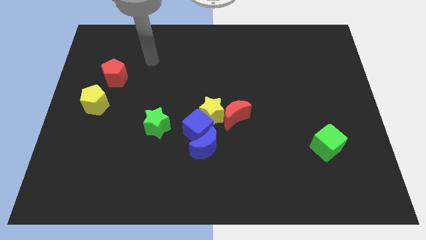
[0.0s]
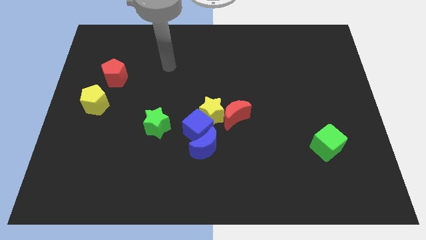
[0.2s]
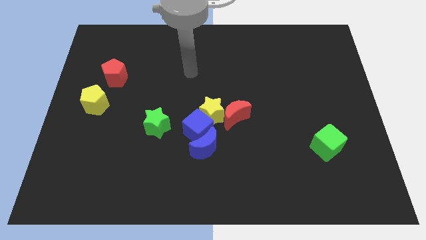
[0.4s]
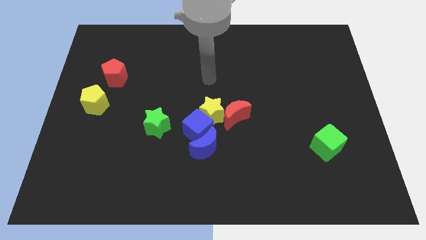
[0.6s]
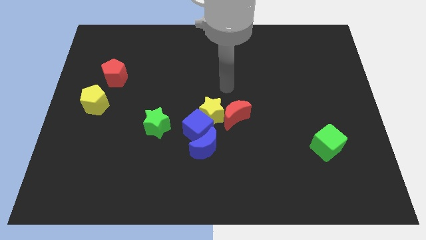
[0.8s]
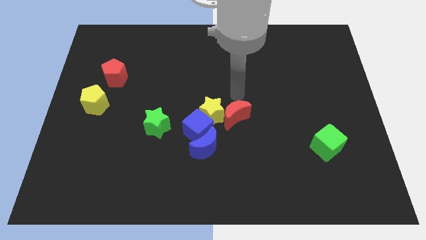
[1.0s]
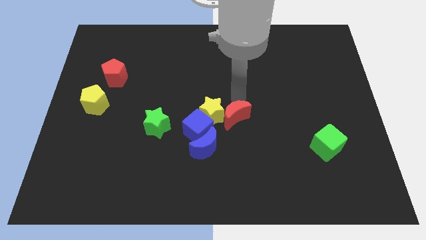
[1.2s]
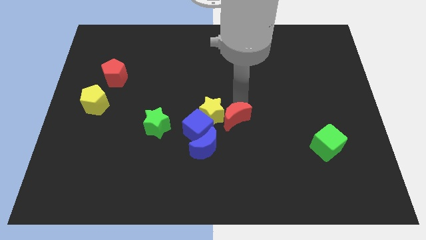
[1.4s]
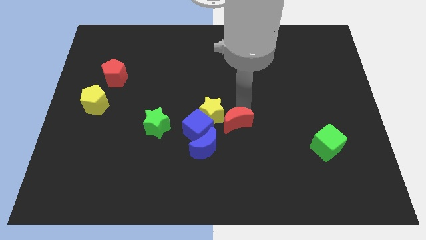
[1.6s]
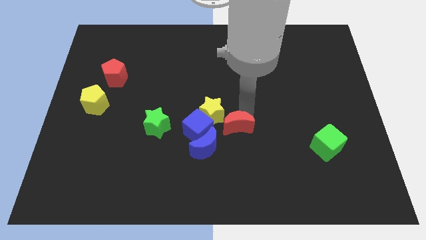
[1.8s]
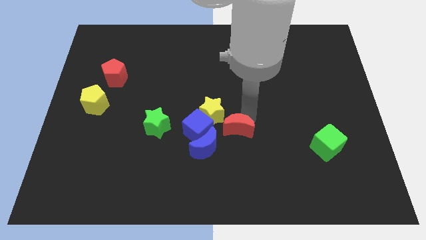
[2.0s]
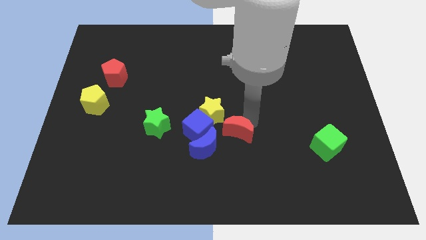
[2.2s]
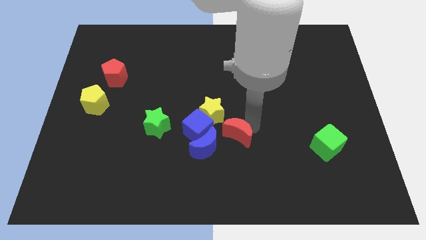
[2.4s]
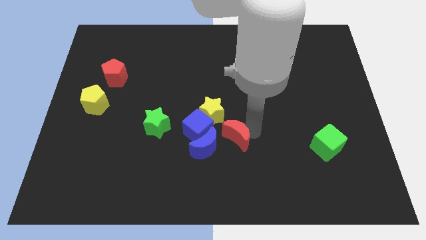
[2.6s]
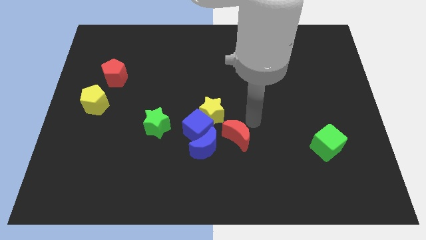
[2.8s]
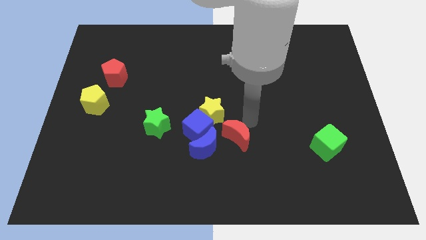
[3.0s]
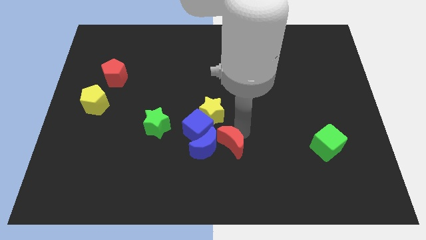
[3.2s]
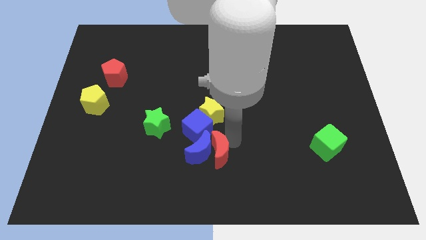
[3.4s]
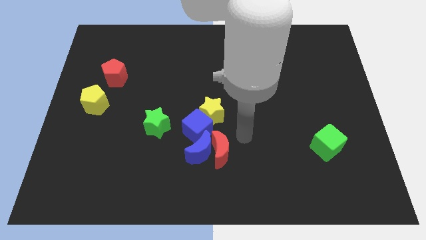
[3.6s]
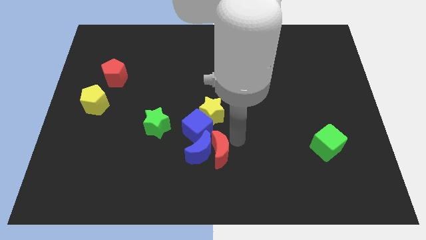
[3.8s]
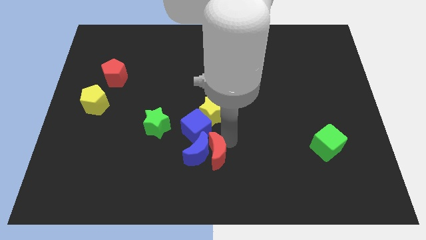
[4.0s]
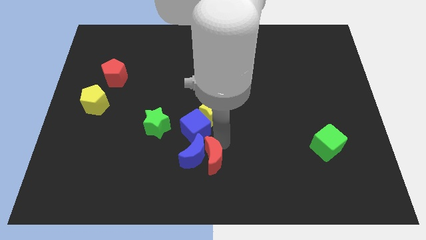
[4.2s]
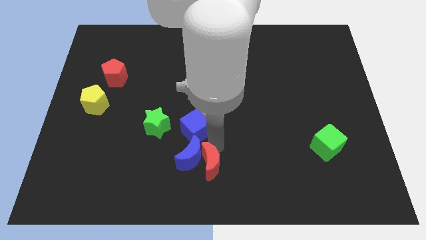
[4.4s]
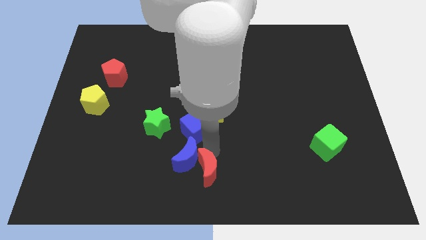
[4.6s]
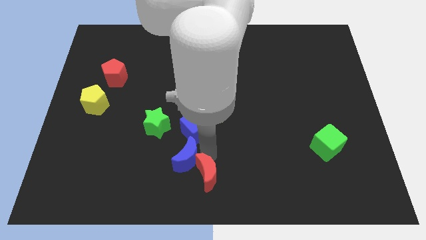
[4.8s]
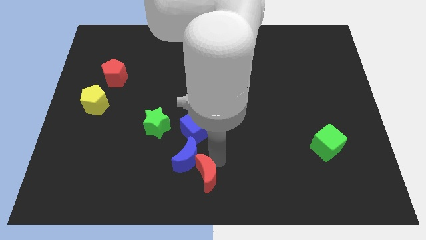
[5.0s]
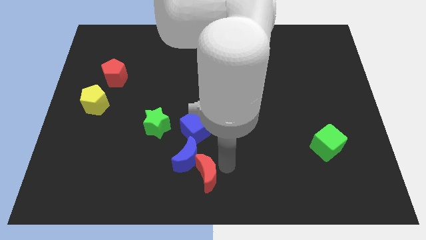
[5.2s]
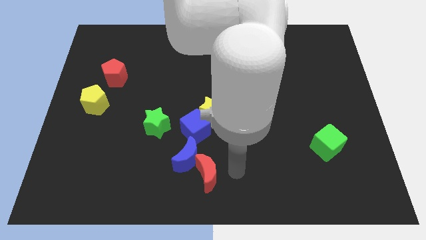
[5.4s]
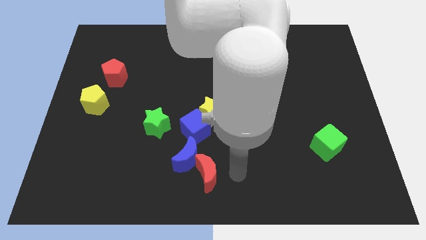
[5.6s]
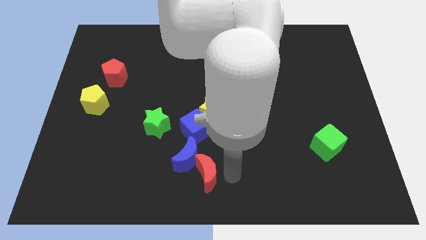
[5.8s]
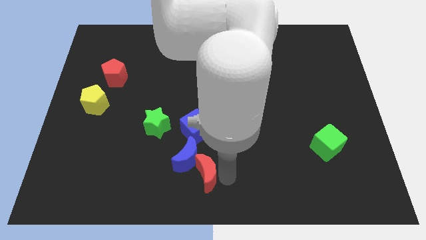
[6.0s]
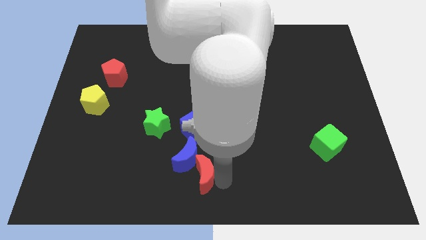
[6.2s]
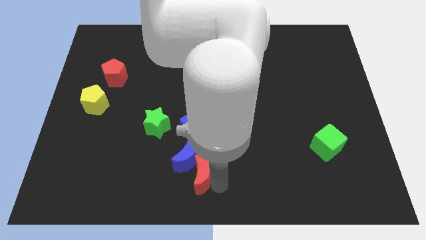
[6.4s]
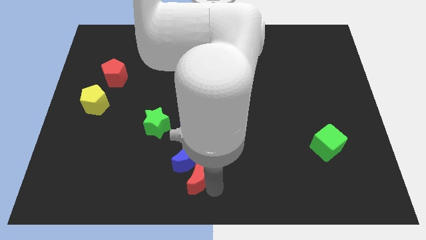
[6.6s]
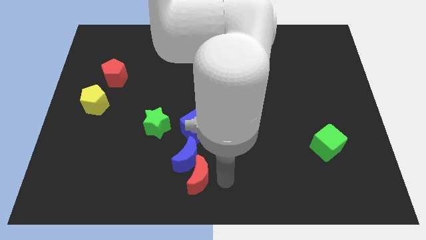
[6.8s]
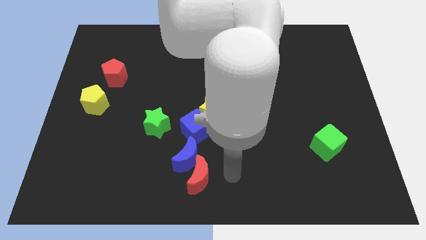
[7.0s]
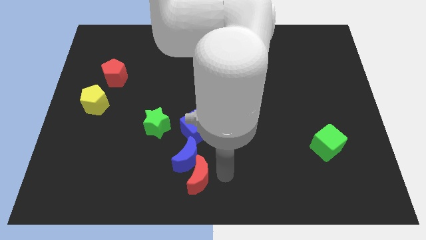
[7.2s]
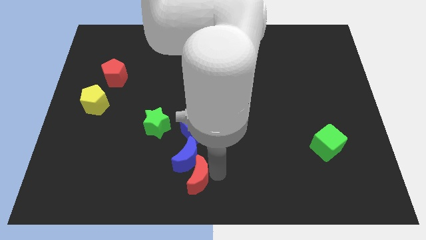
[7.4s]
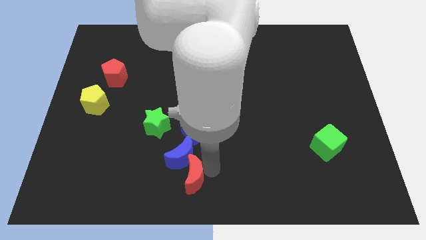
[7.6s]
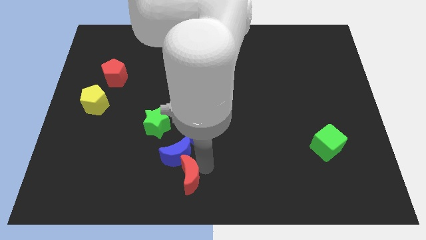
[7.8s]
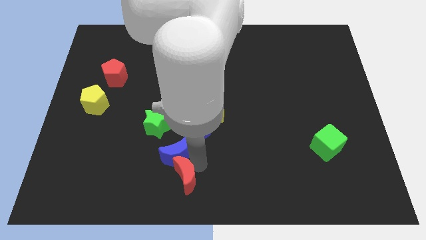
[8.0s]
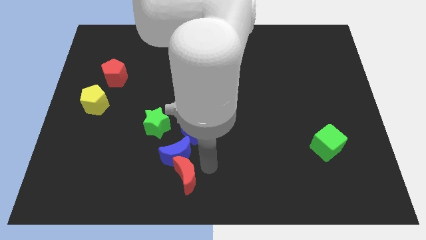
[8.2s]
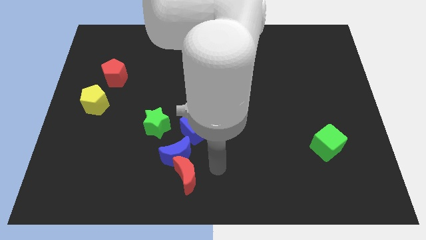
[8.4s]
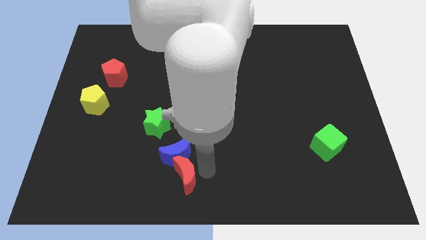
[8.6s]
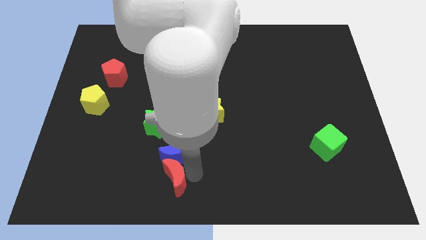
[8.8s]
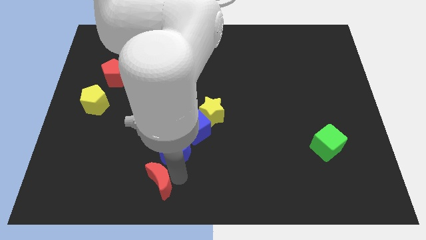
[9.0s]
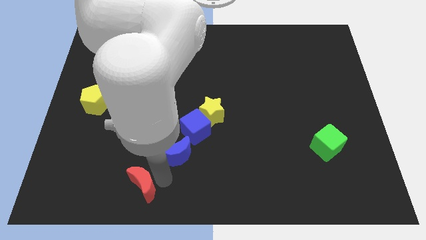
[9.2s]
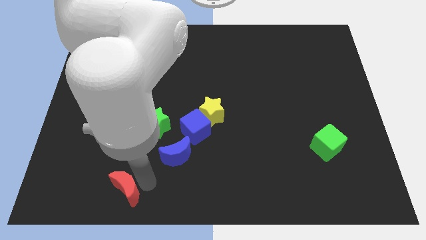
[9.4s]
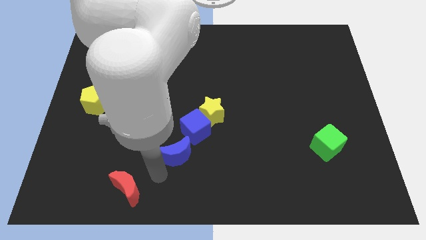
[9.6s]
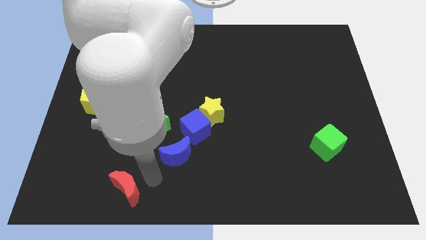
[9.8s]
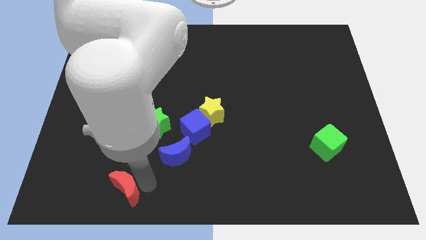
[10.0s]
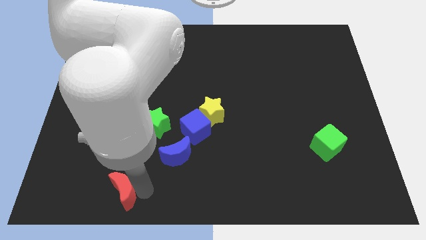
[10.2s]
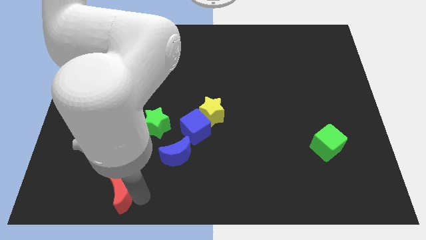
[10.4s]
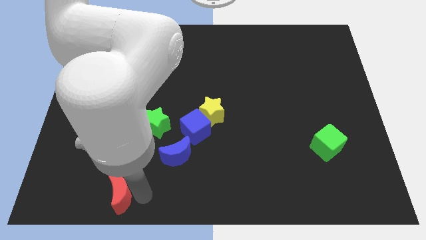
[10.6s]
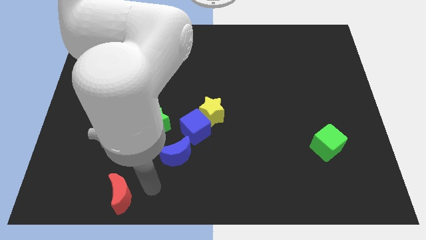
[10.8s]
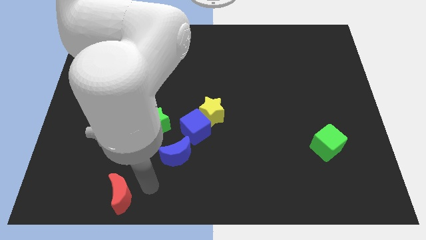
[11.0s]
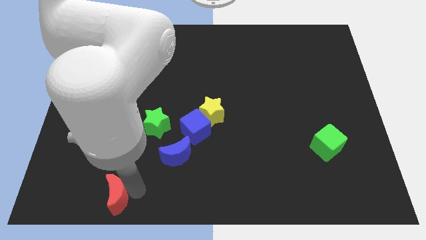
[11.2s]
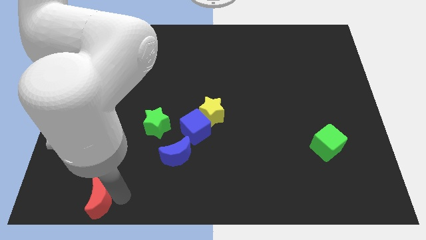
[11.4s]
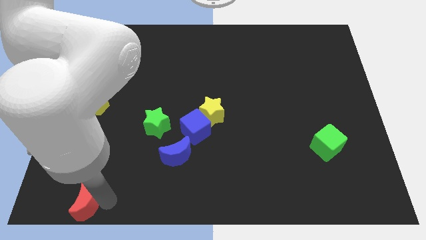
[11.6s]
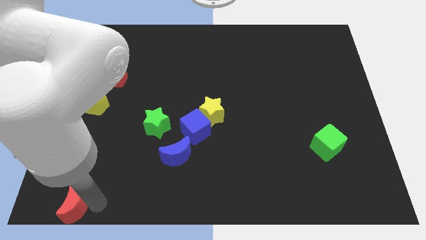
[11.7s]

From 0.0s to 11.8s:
slide the red moon to the bottom left of the board

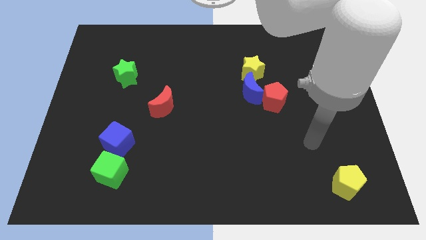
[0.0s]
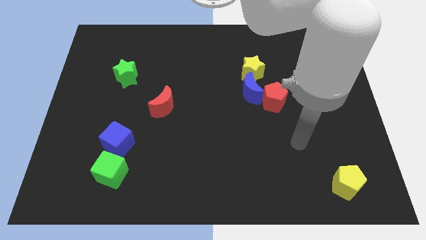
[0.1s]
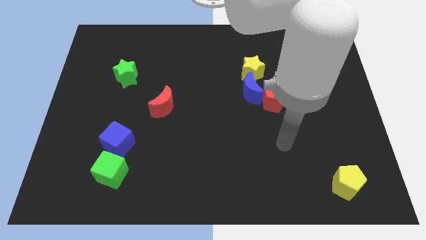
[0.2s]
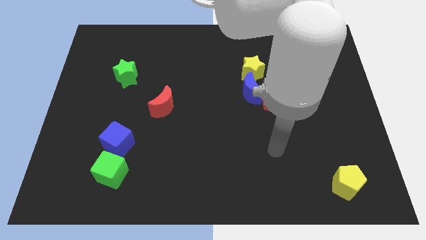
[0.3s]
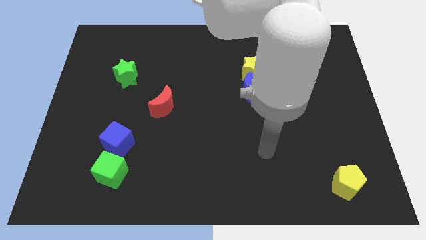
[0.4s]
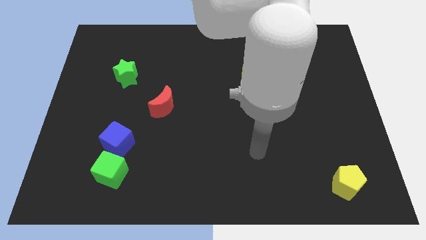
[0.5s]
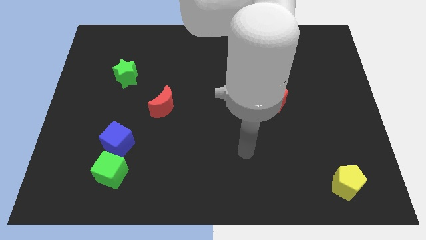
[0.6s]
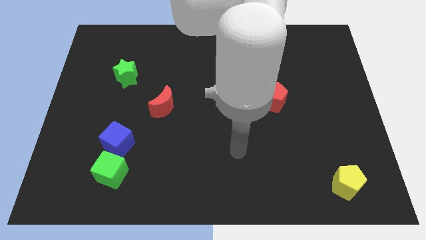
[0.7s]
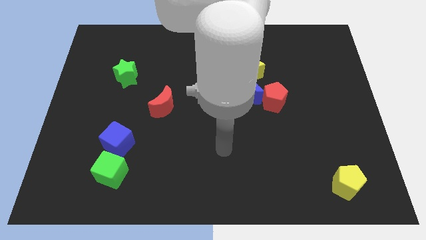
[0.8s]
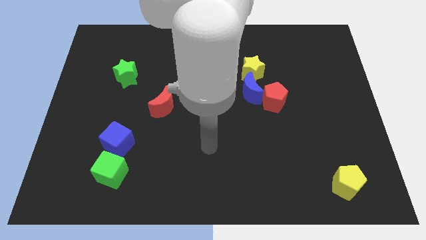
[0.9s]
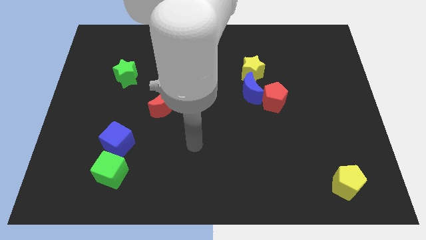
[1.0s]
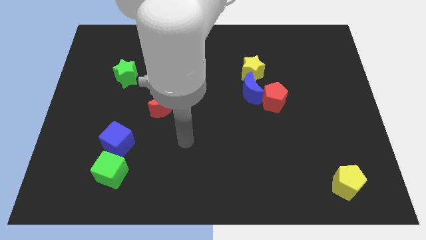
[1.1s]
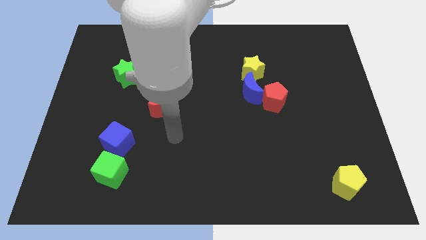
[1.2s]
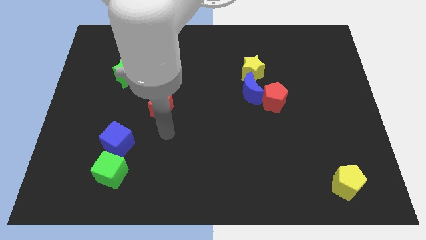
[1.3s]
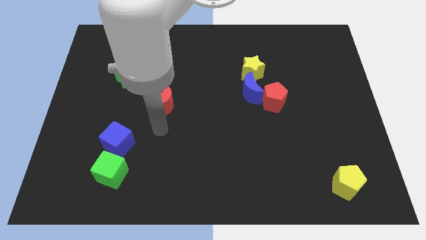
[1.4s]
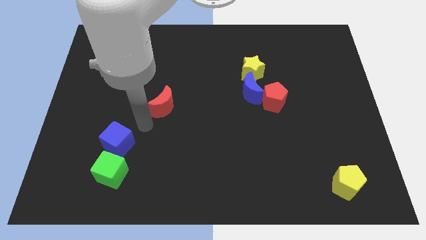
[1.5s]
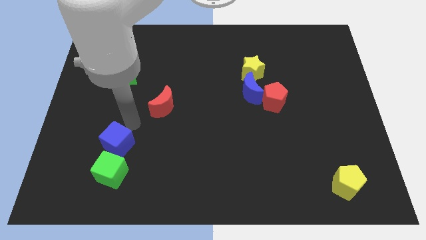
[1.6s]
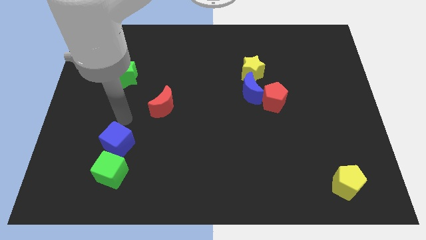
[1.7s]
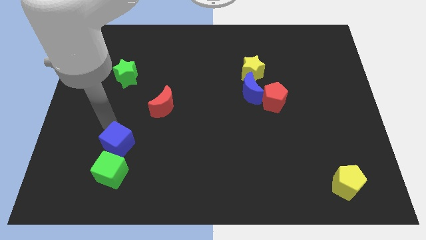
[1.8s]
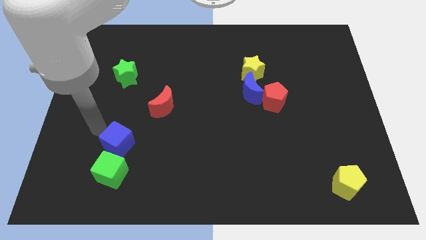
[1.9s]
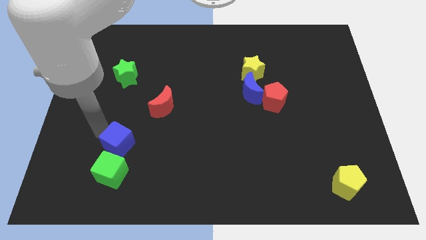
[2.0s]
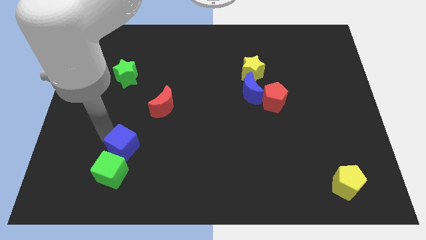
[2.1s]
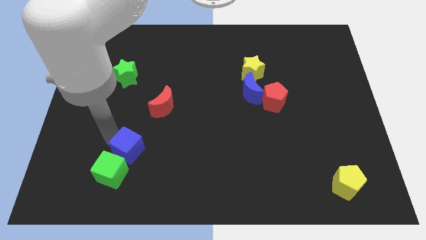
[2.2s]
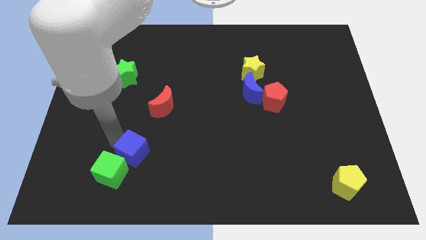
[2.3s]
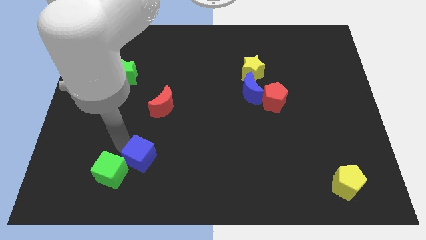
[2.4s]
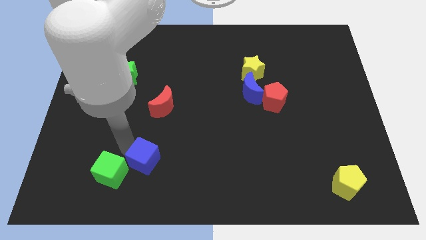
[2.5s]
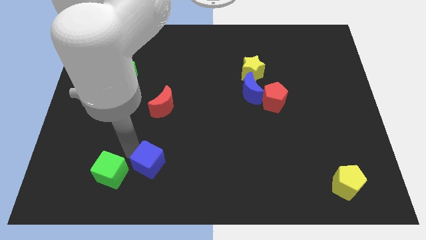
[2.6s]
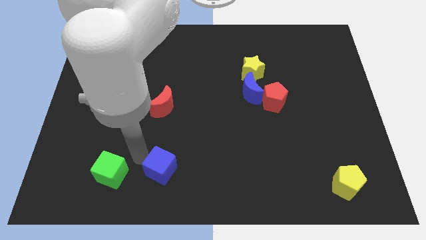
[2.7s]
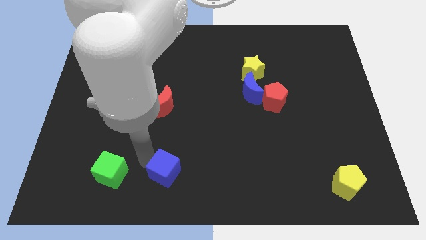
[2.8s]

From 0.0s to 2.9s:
move the blue cube to the bottom side
